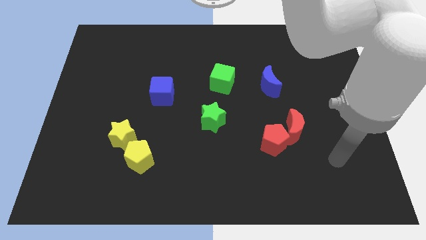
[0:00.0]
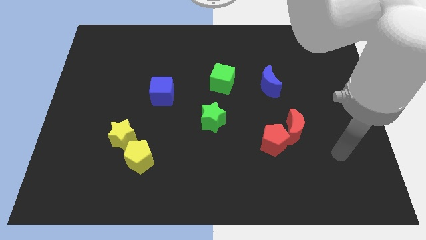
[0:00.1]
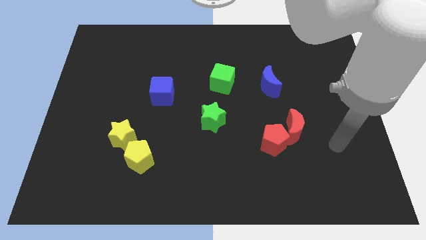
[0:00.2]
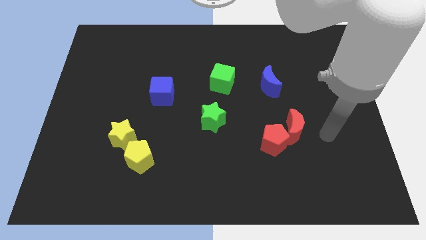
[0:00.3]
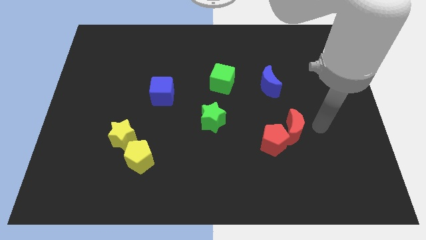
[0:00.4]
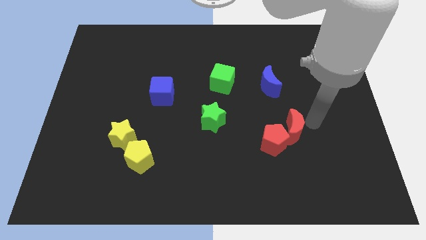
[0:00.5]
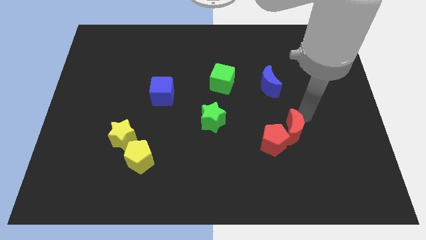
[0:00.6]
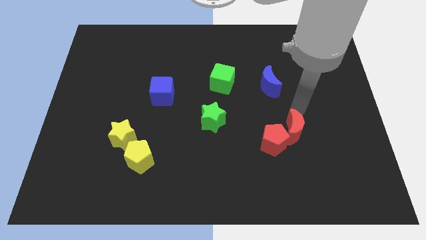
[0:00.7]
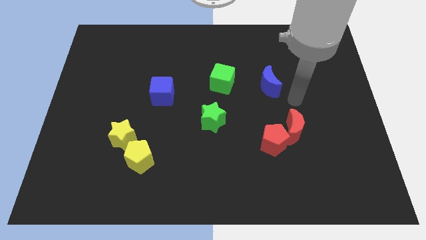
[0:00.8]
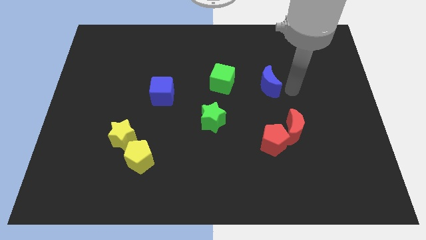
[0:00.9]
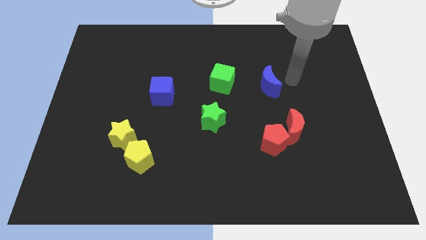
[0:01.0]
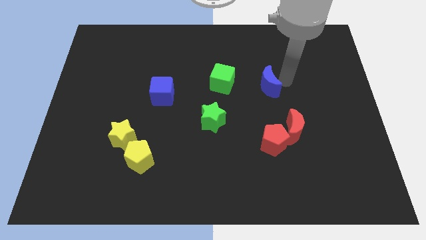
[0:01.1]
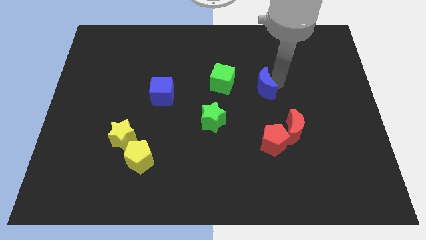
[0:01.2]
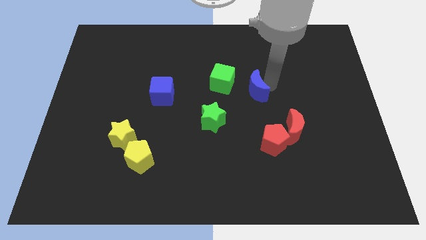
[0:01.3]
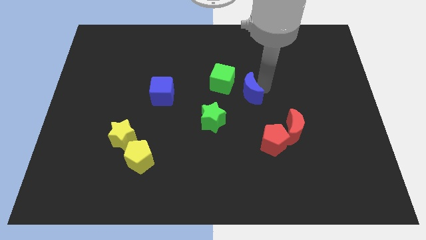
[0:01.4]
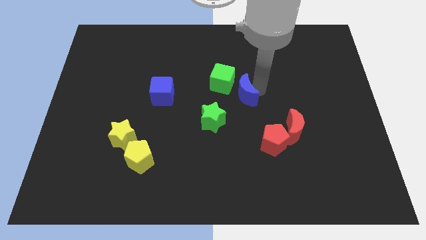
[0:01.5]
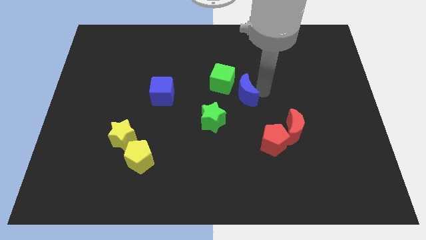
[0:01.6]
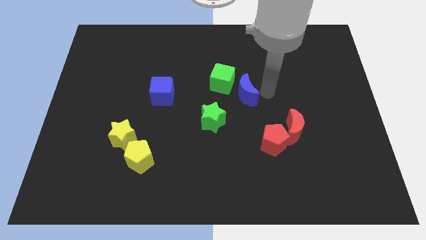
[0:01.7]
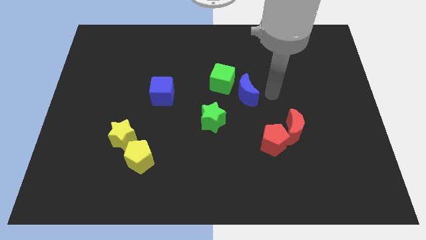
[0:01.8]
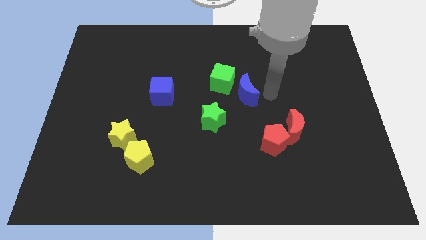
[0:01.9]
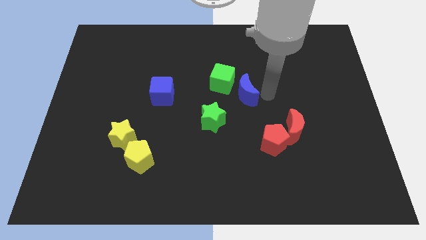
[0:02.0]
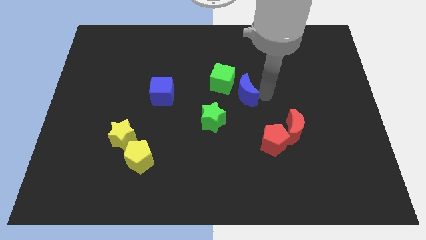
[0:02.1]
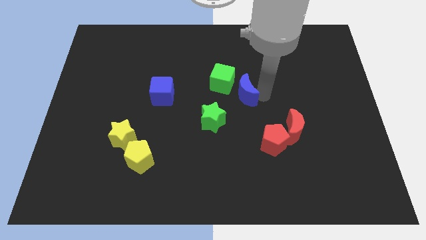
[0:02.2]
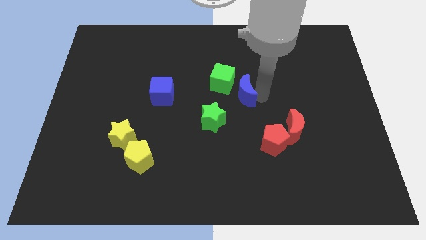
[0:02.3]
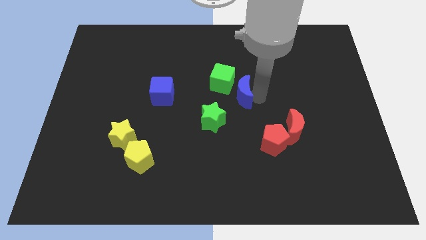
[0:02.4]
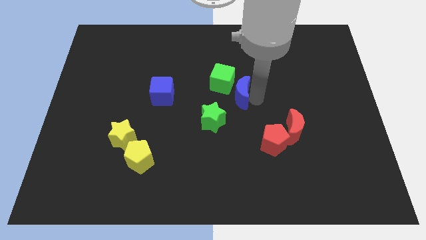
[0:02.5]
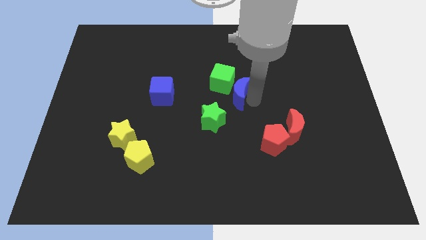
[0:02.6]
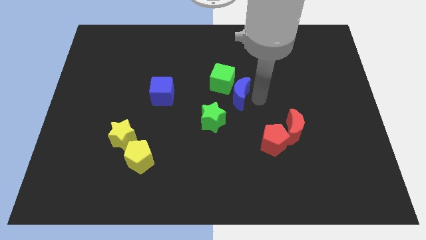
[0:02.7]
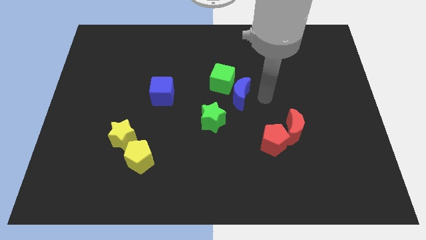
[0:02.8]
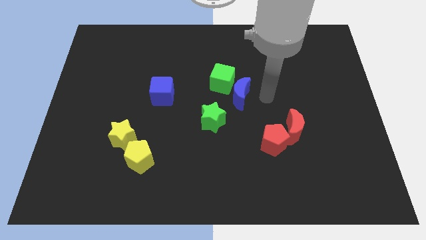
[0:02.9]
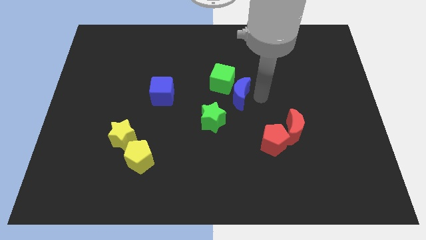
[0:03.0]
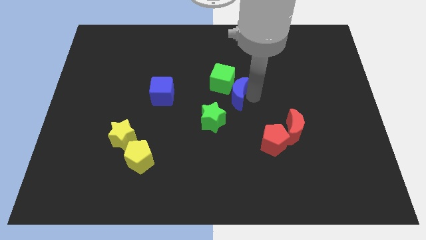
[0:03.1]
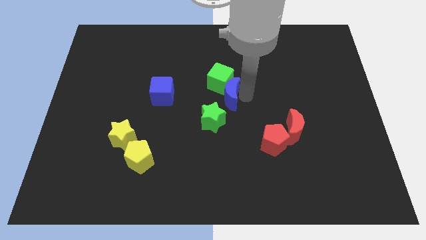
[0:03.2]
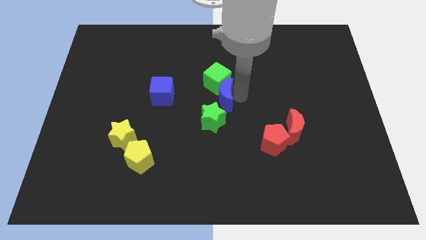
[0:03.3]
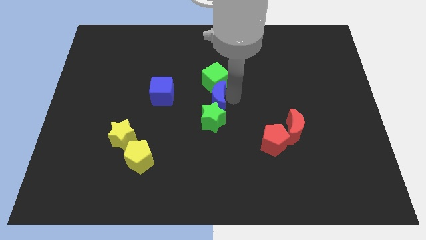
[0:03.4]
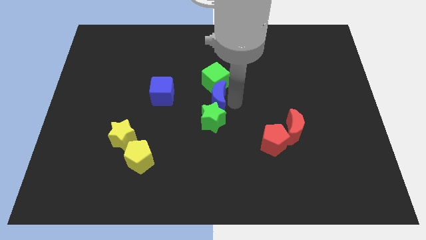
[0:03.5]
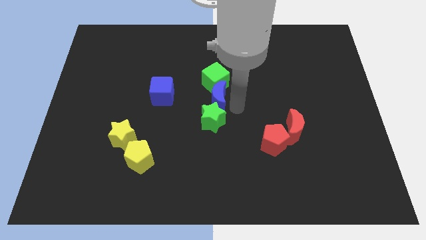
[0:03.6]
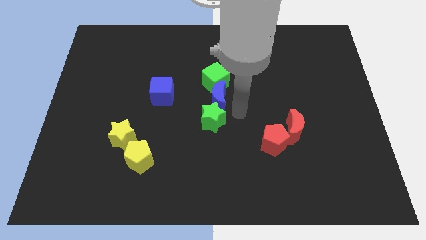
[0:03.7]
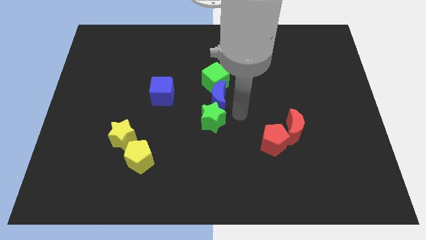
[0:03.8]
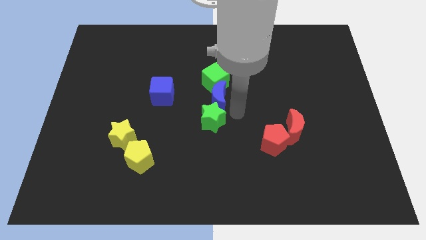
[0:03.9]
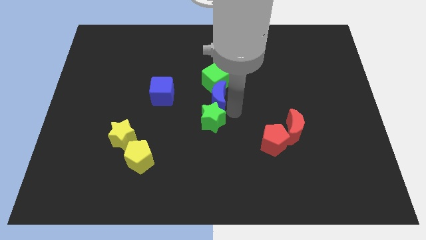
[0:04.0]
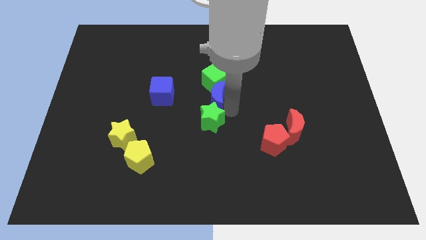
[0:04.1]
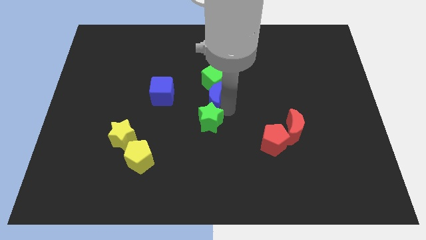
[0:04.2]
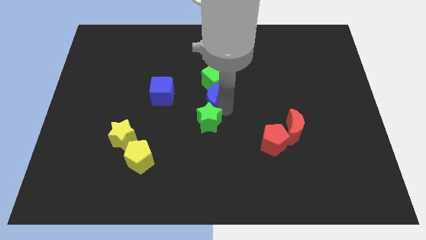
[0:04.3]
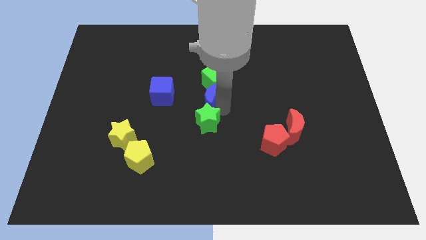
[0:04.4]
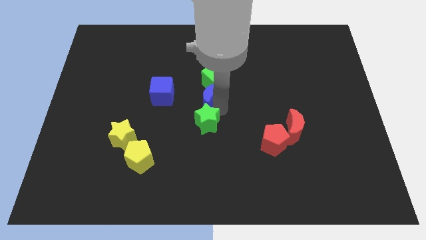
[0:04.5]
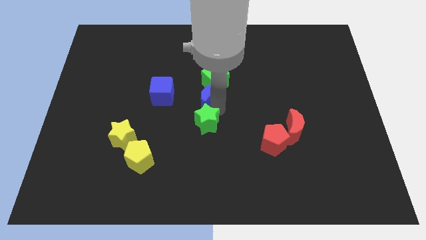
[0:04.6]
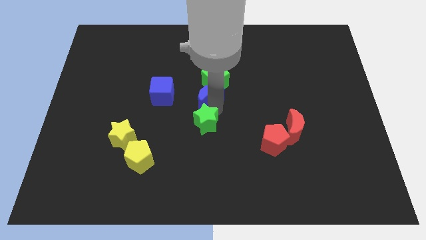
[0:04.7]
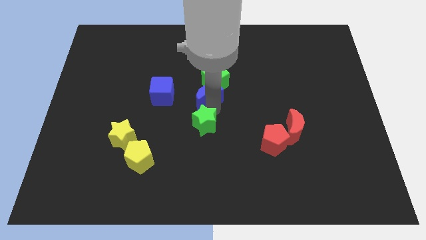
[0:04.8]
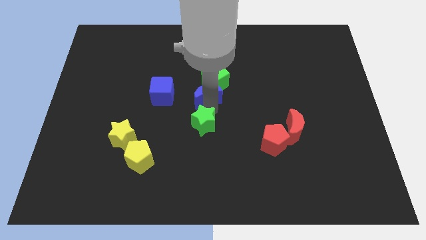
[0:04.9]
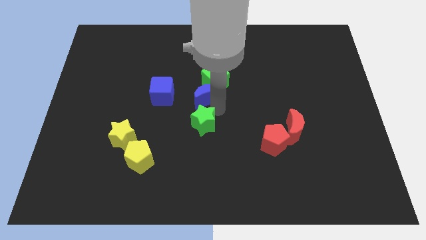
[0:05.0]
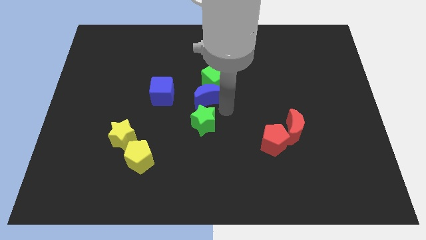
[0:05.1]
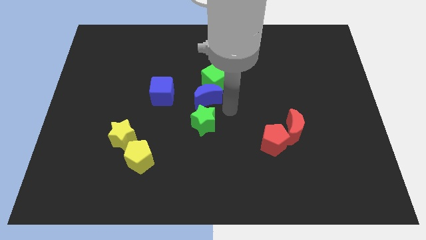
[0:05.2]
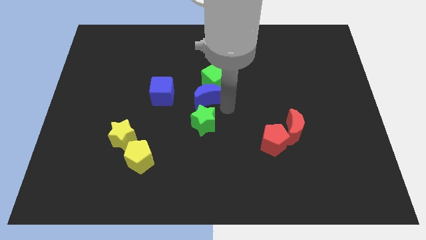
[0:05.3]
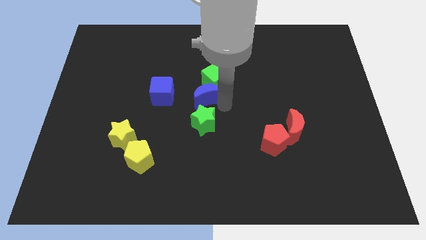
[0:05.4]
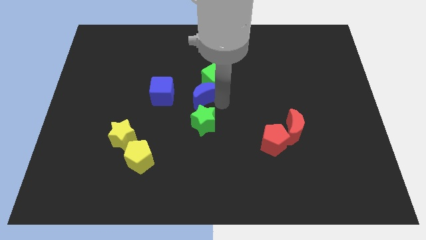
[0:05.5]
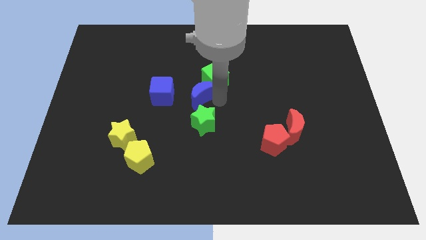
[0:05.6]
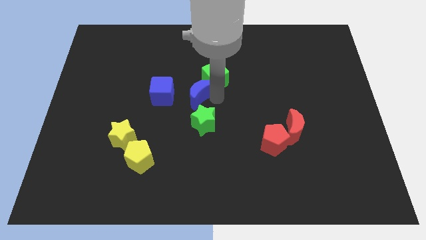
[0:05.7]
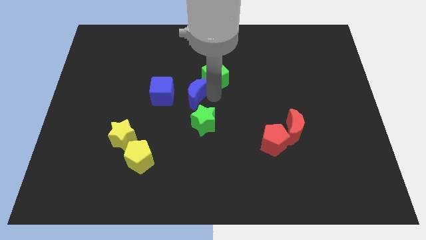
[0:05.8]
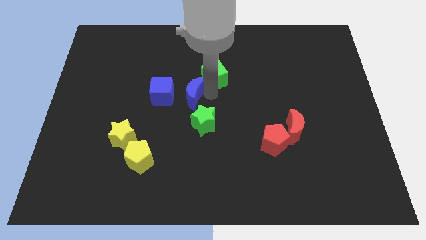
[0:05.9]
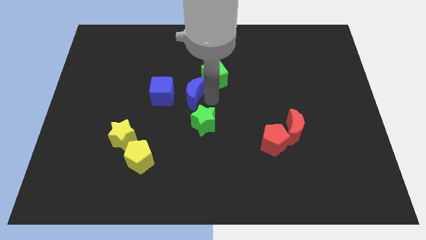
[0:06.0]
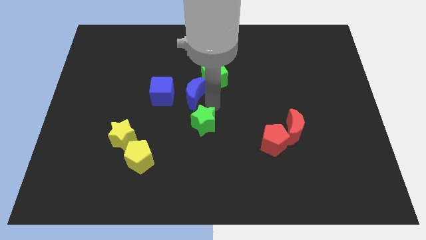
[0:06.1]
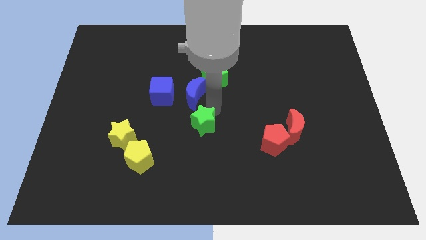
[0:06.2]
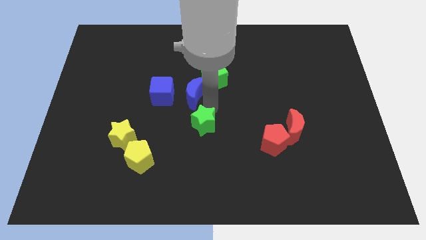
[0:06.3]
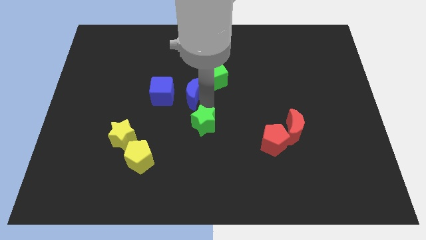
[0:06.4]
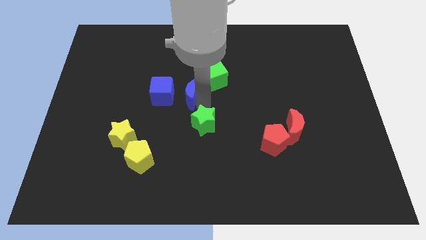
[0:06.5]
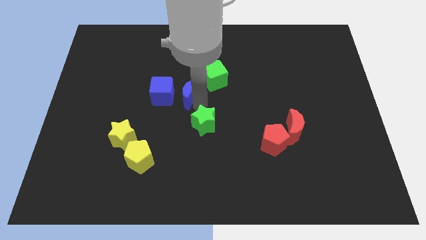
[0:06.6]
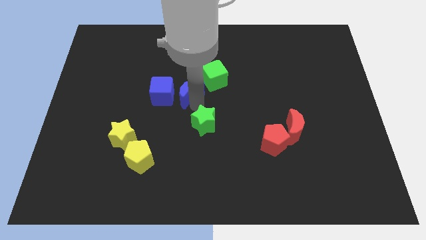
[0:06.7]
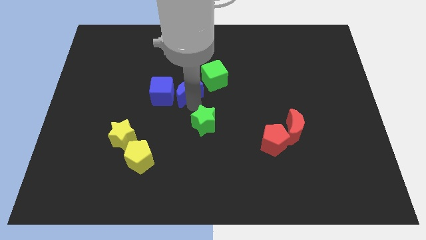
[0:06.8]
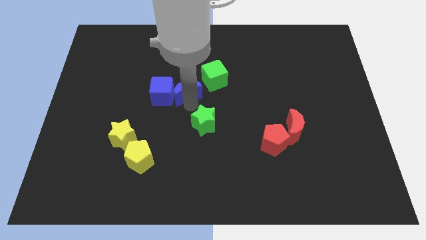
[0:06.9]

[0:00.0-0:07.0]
push the blue moon to the left side of the green cube
